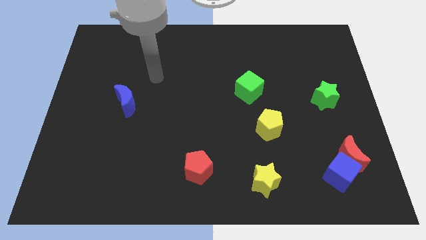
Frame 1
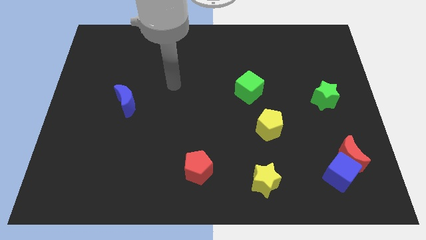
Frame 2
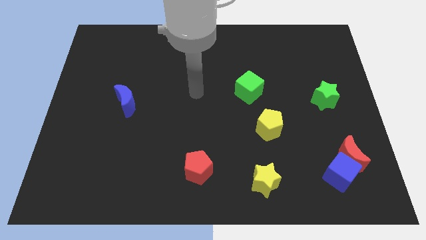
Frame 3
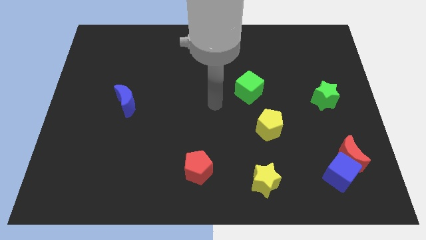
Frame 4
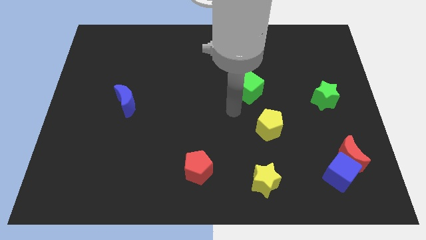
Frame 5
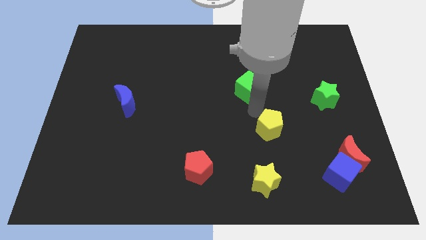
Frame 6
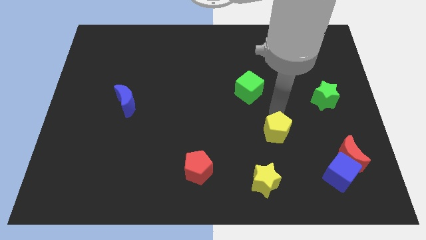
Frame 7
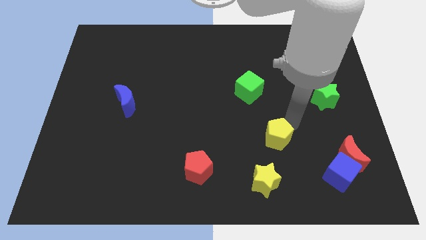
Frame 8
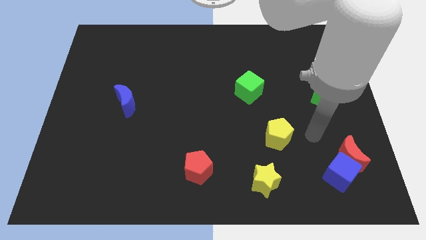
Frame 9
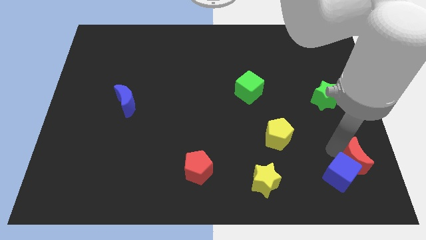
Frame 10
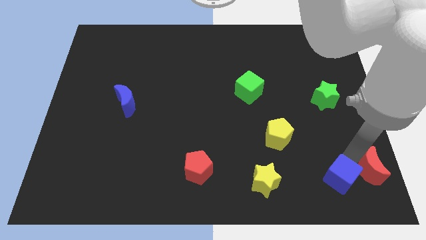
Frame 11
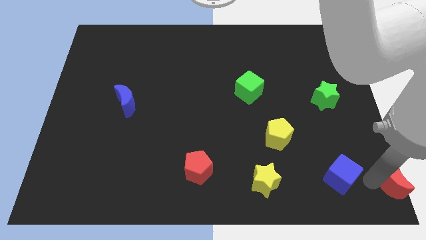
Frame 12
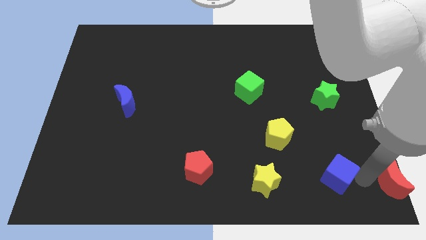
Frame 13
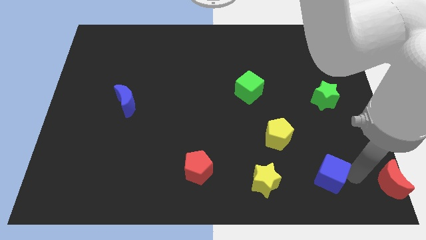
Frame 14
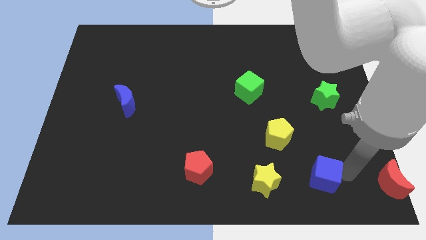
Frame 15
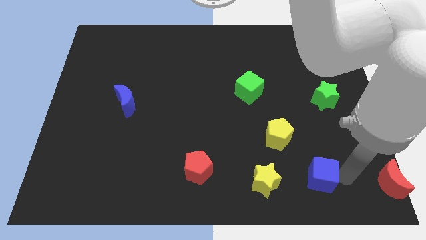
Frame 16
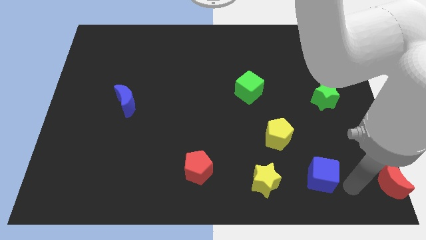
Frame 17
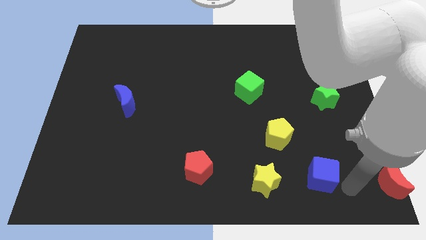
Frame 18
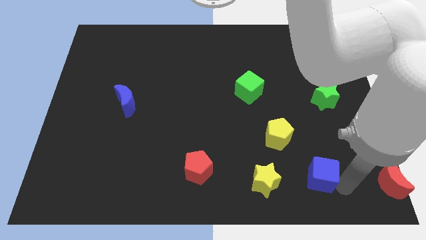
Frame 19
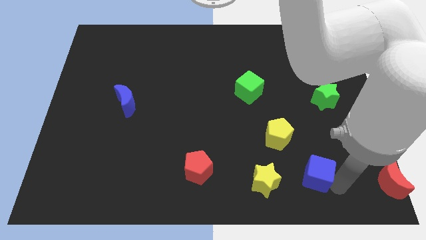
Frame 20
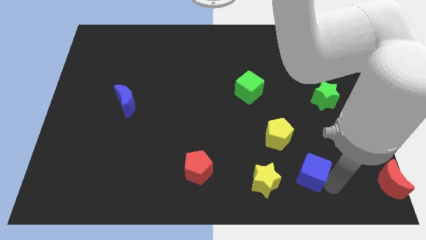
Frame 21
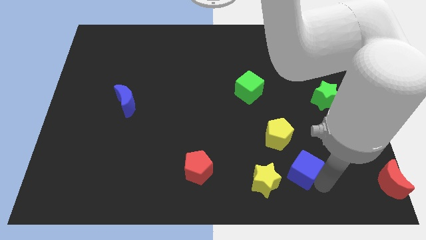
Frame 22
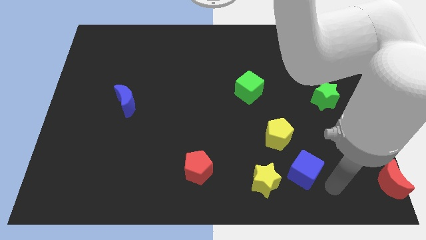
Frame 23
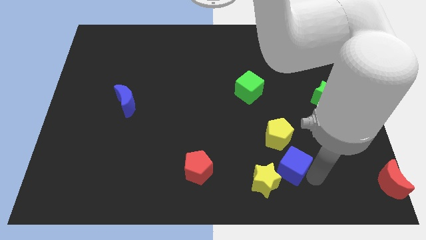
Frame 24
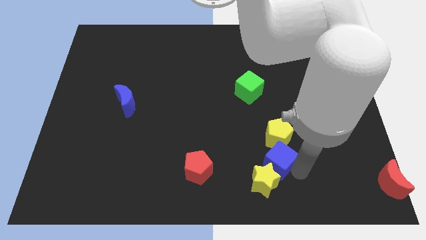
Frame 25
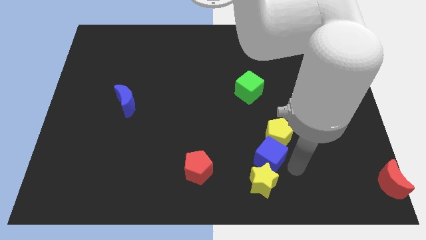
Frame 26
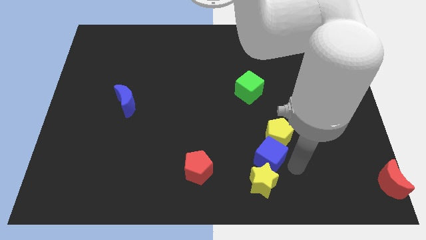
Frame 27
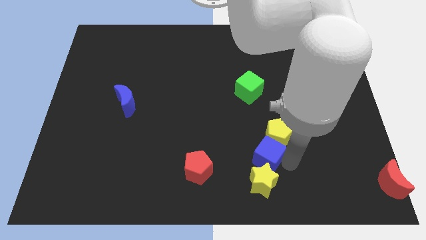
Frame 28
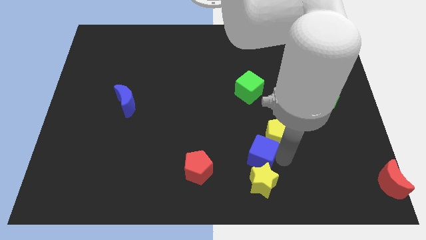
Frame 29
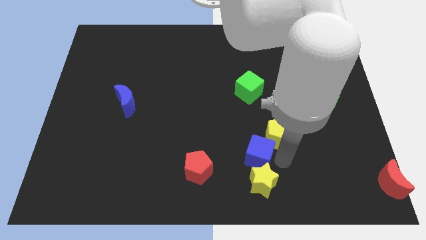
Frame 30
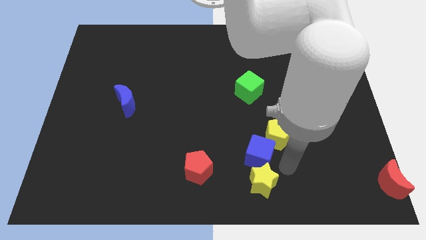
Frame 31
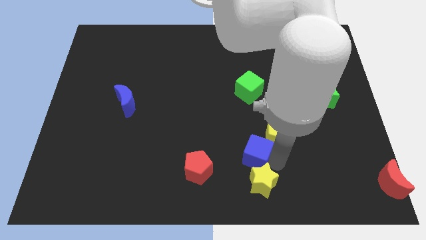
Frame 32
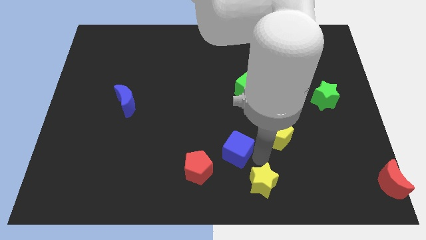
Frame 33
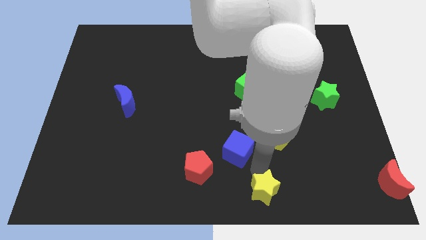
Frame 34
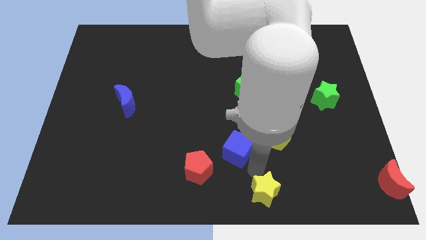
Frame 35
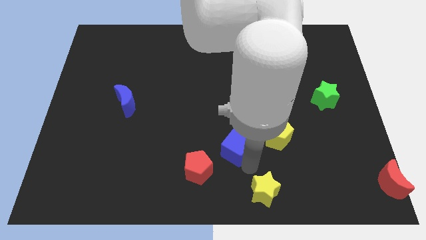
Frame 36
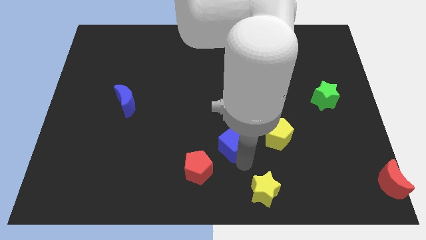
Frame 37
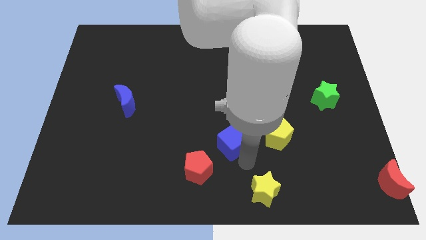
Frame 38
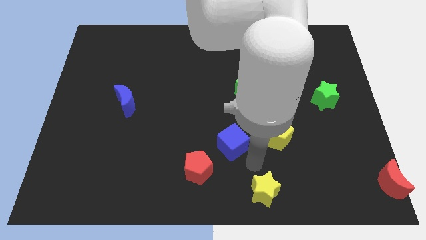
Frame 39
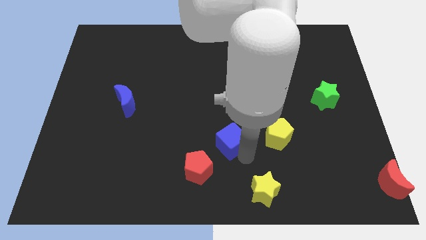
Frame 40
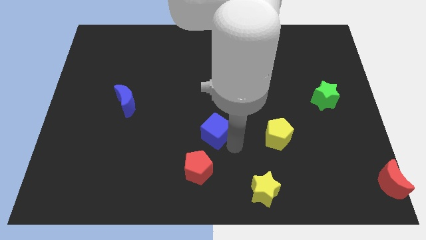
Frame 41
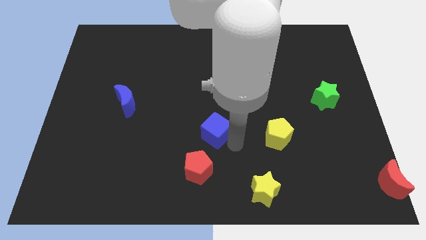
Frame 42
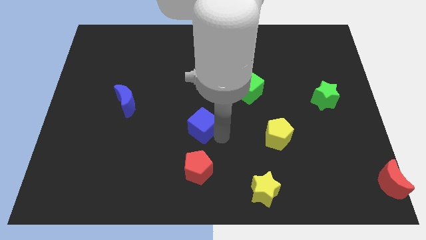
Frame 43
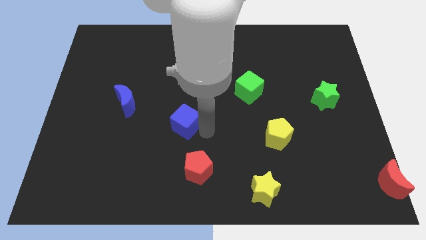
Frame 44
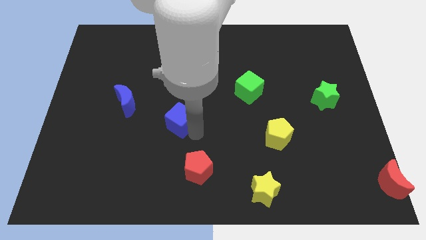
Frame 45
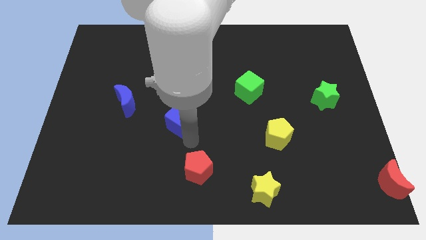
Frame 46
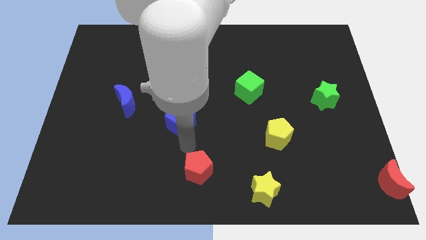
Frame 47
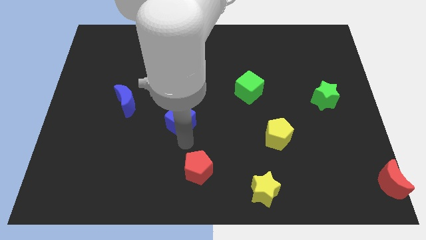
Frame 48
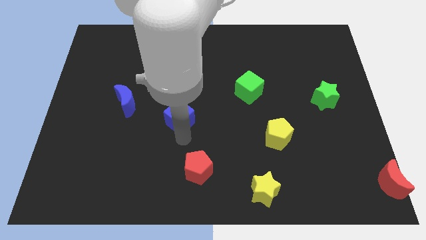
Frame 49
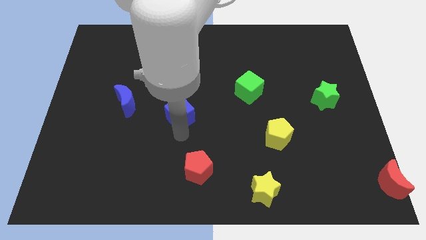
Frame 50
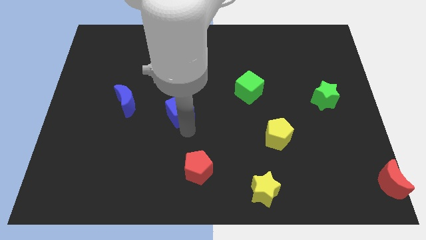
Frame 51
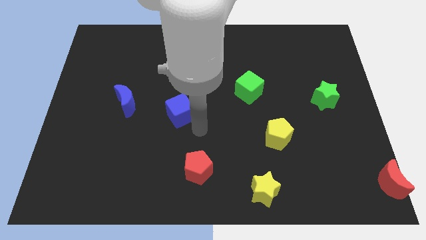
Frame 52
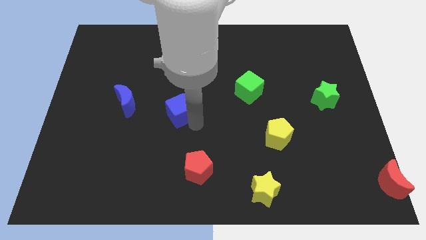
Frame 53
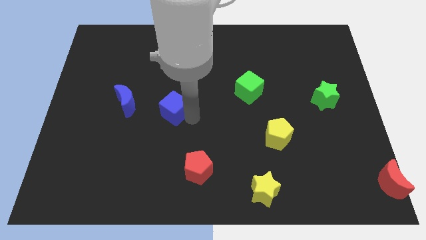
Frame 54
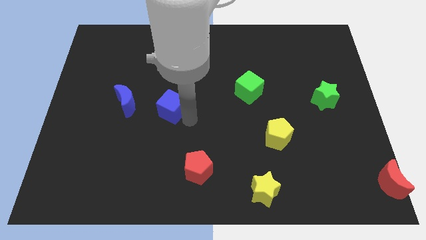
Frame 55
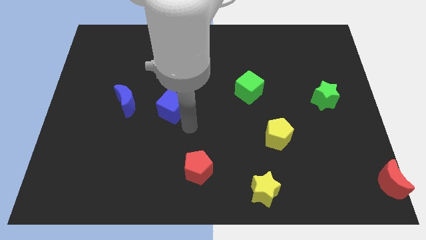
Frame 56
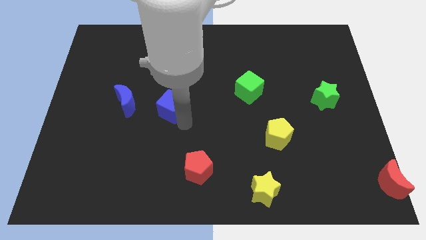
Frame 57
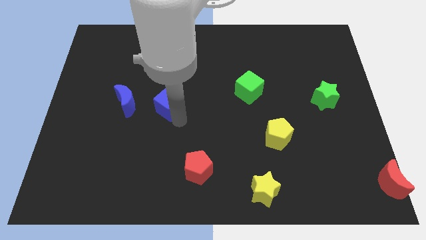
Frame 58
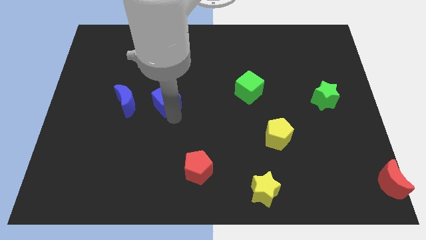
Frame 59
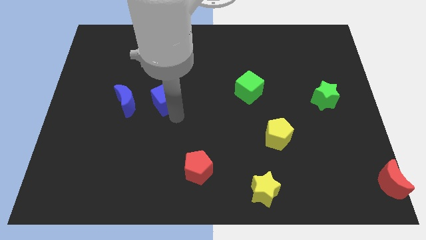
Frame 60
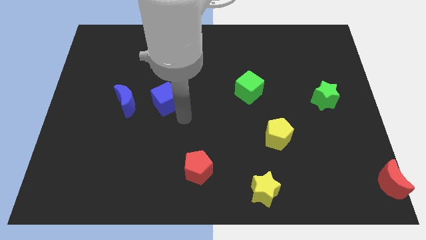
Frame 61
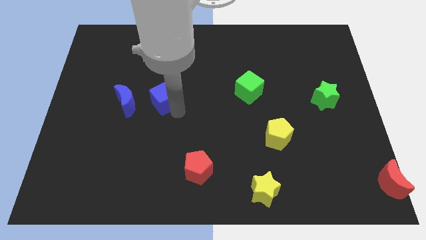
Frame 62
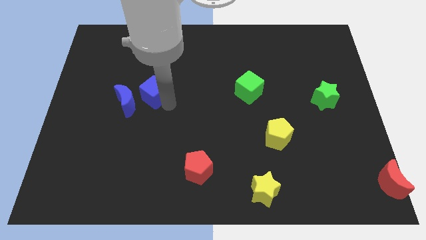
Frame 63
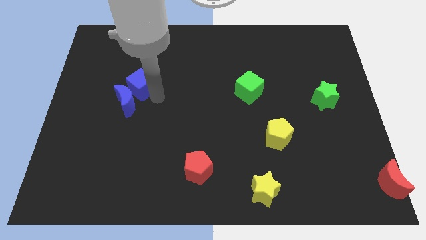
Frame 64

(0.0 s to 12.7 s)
push the blue cube to the top of the blue moon
